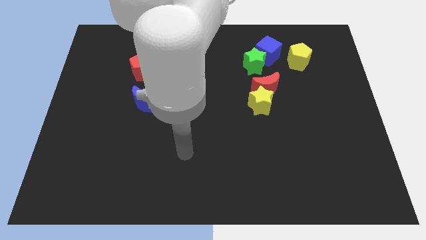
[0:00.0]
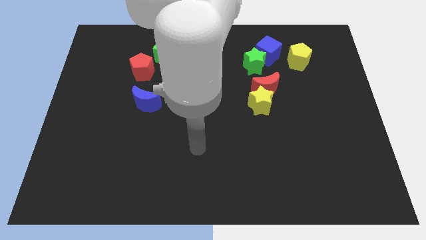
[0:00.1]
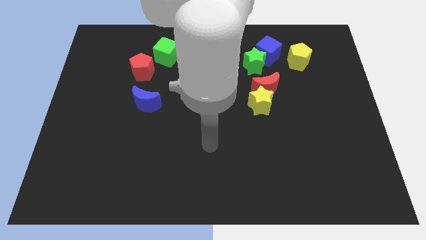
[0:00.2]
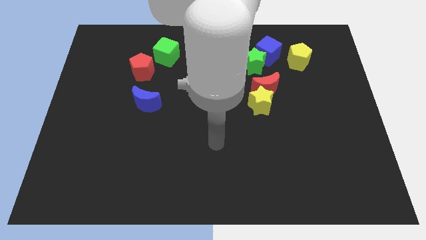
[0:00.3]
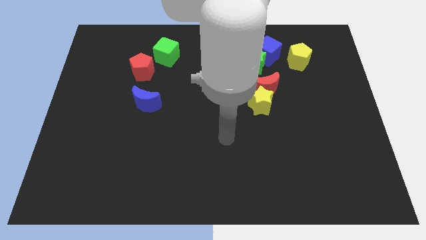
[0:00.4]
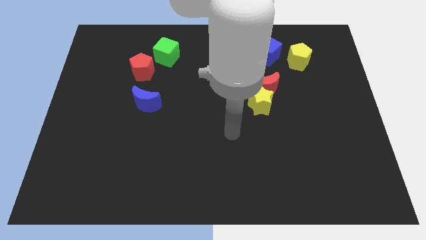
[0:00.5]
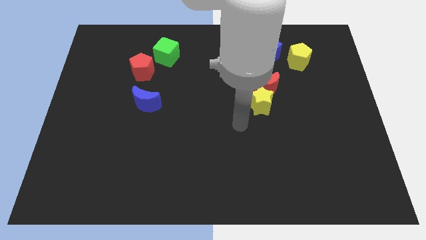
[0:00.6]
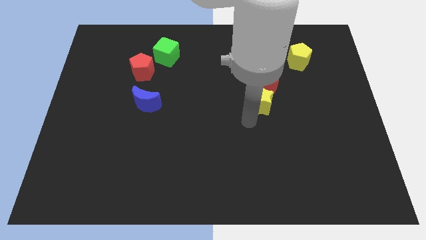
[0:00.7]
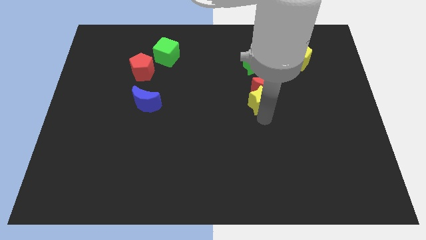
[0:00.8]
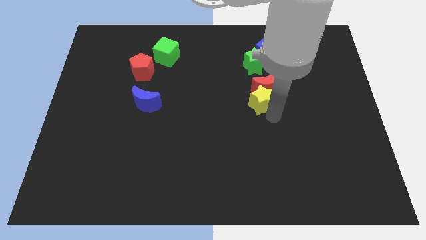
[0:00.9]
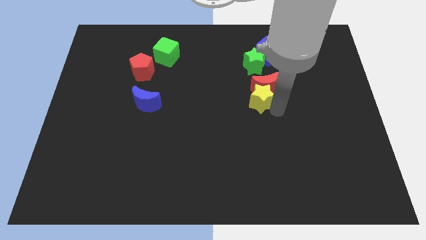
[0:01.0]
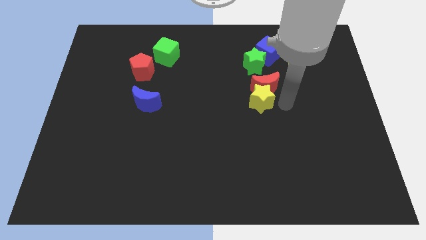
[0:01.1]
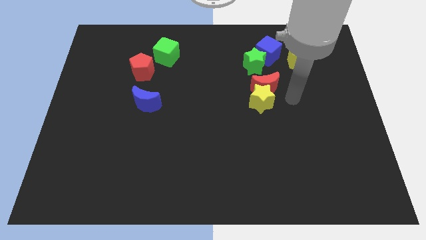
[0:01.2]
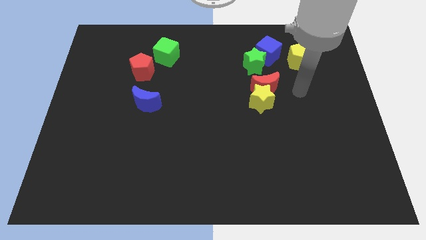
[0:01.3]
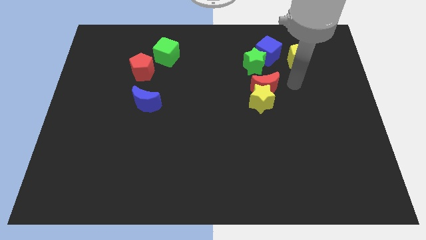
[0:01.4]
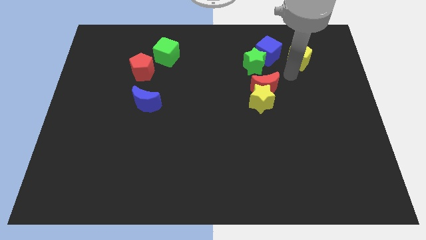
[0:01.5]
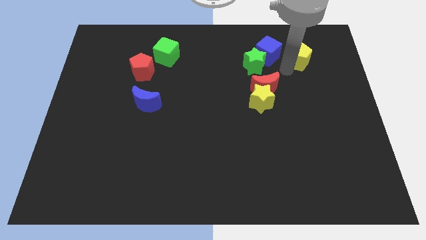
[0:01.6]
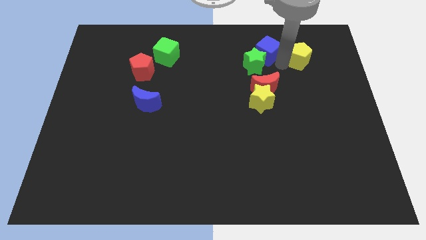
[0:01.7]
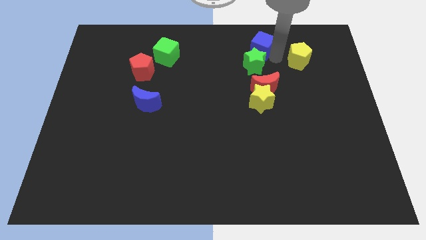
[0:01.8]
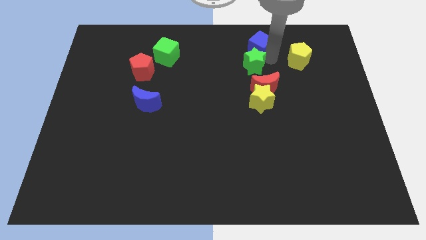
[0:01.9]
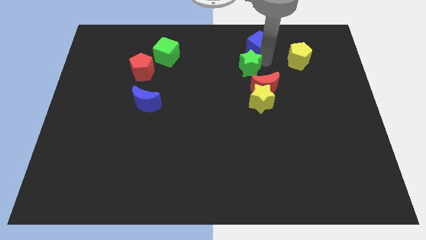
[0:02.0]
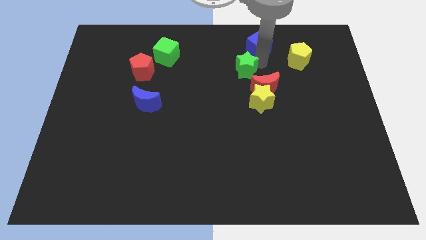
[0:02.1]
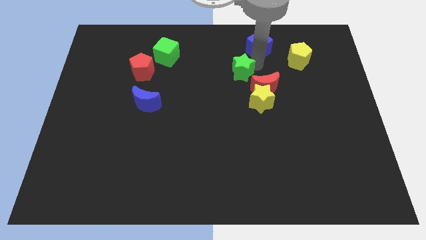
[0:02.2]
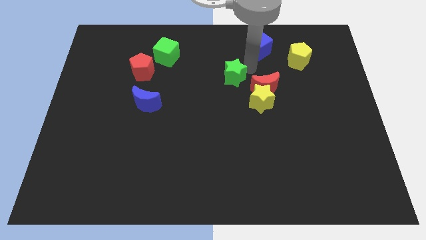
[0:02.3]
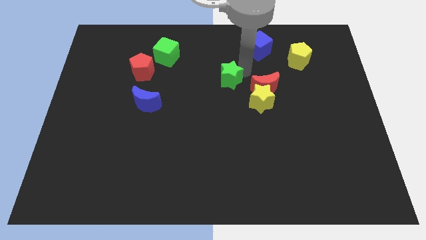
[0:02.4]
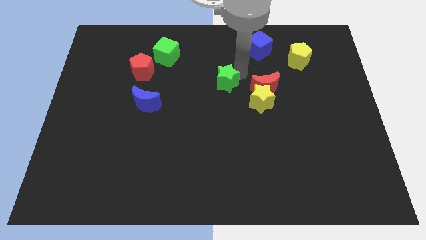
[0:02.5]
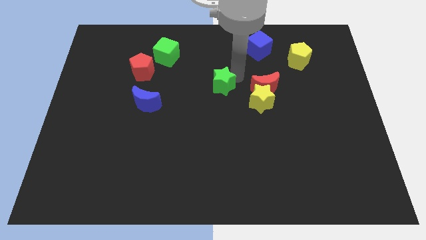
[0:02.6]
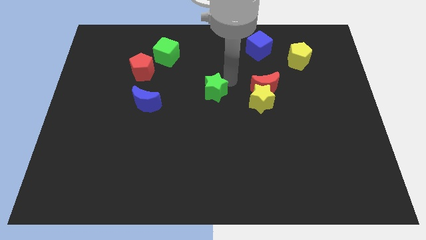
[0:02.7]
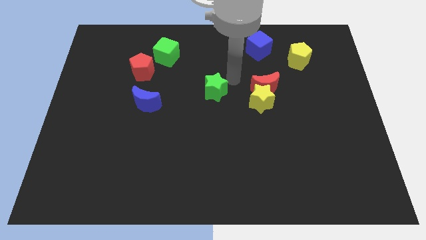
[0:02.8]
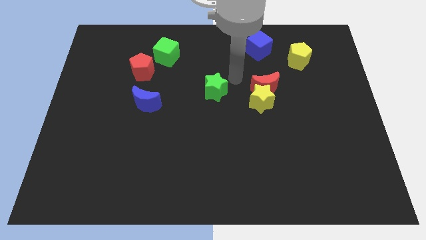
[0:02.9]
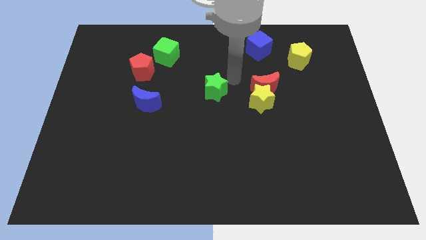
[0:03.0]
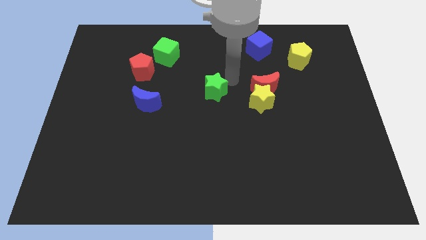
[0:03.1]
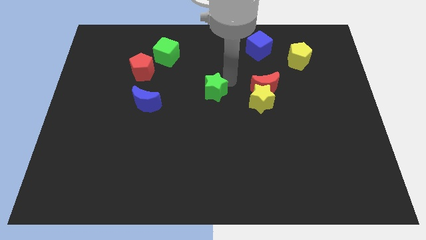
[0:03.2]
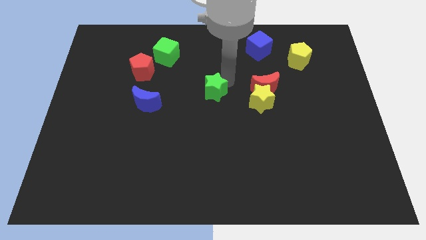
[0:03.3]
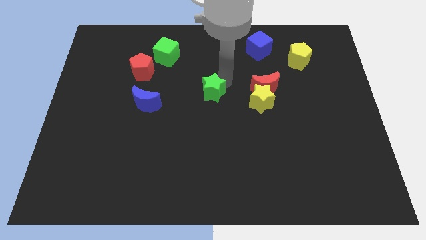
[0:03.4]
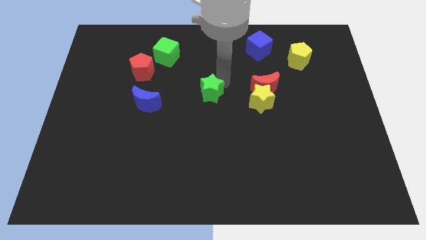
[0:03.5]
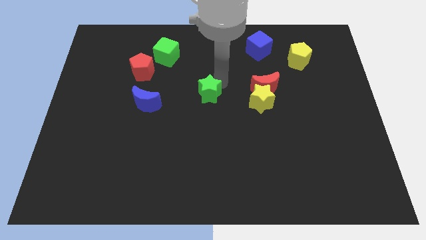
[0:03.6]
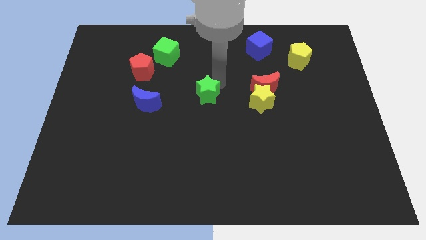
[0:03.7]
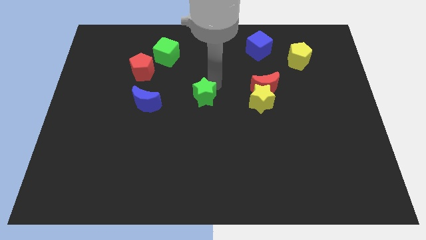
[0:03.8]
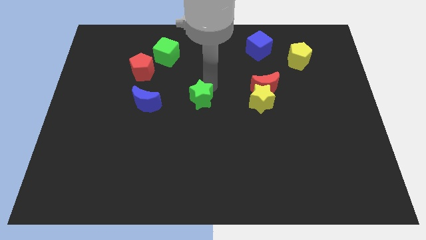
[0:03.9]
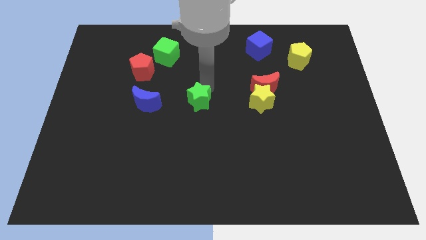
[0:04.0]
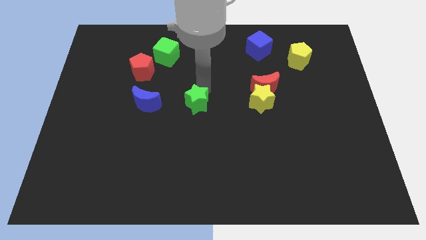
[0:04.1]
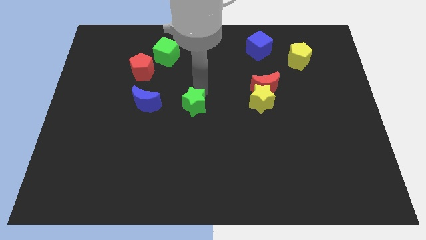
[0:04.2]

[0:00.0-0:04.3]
slide the green star downwards and to the left diagonally

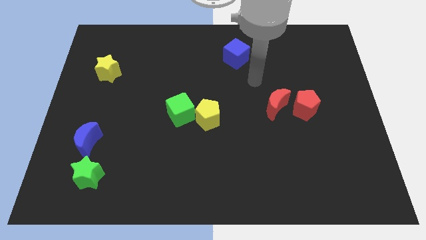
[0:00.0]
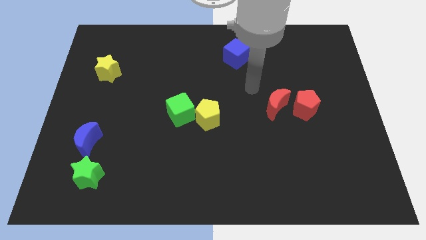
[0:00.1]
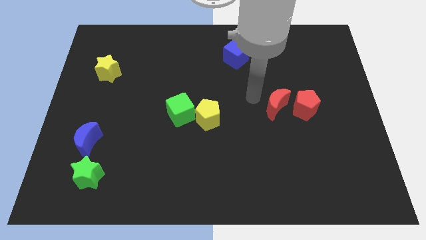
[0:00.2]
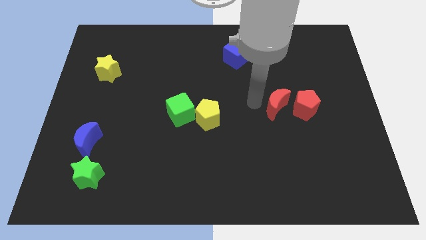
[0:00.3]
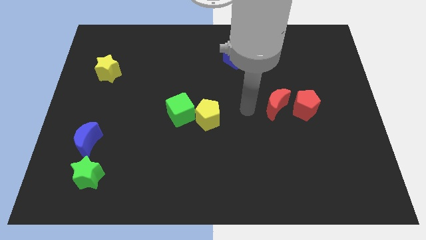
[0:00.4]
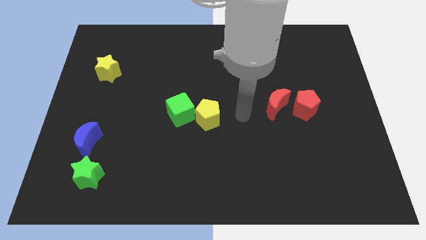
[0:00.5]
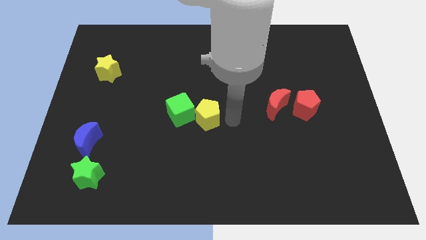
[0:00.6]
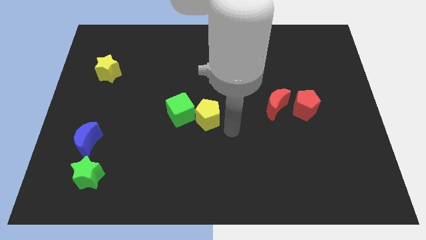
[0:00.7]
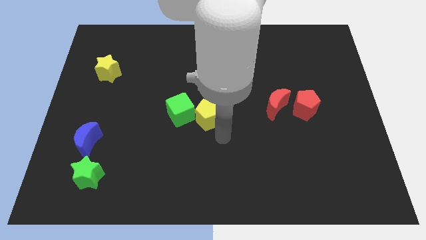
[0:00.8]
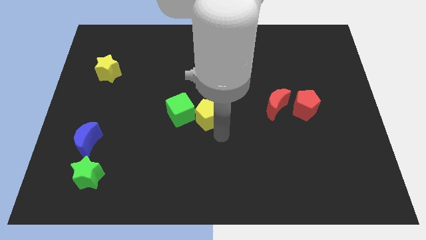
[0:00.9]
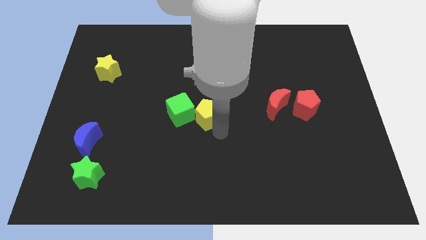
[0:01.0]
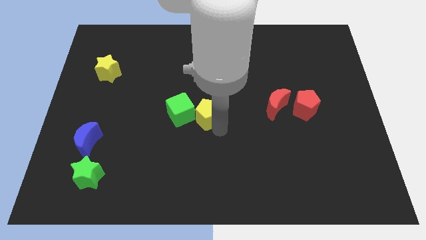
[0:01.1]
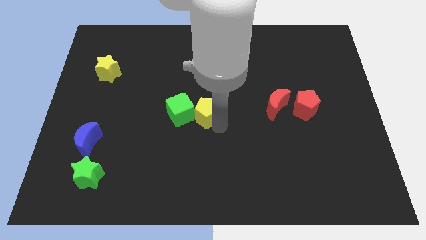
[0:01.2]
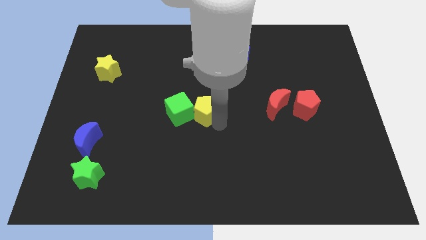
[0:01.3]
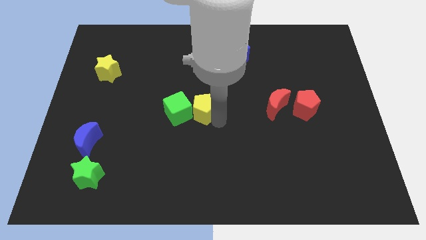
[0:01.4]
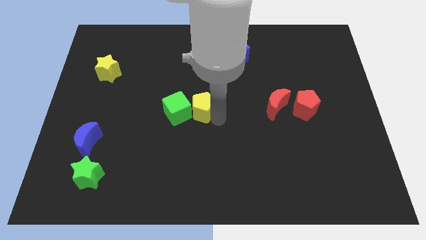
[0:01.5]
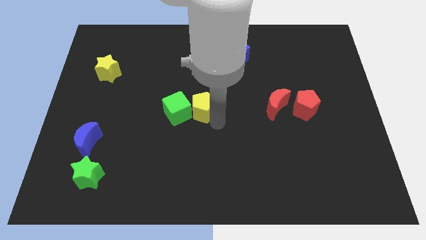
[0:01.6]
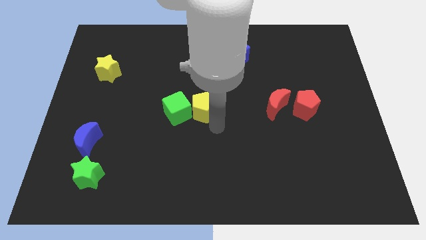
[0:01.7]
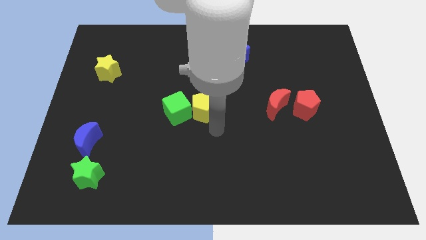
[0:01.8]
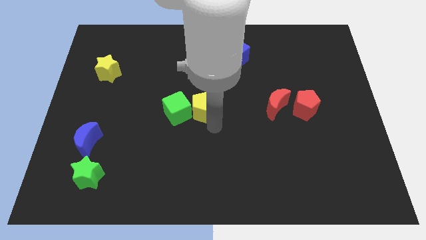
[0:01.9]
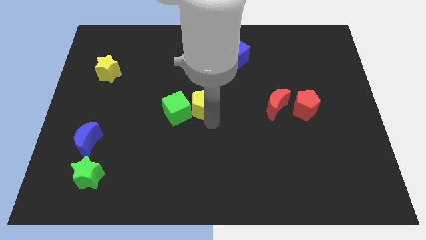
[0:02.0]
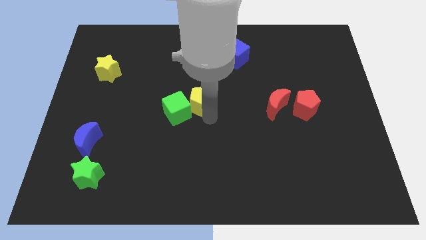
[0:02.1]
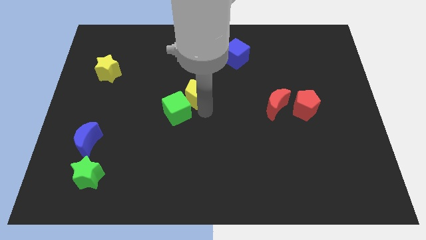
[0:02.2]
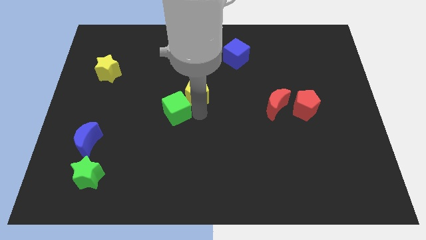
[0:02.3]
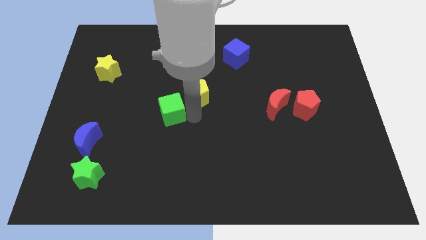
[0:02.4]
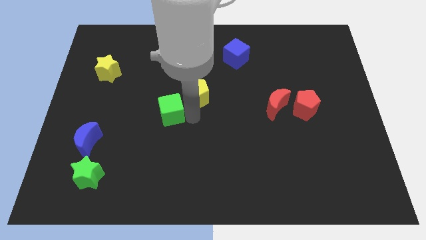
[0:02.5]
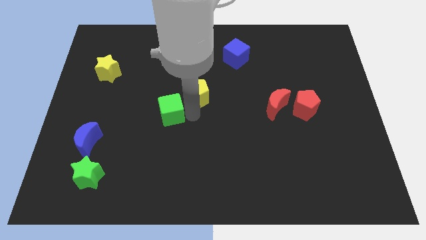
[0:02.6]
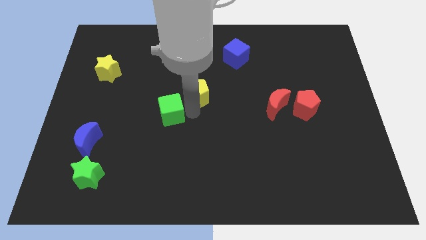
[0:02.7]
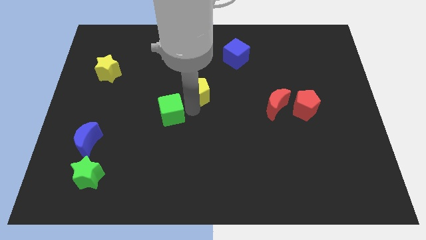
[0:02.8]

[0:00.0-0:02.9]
push the yellow pentagon up a bit

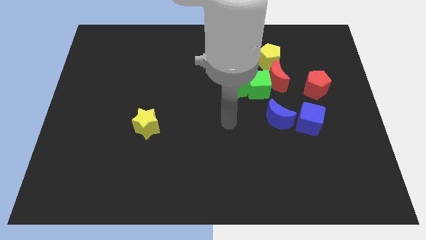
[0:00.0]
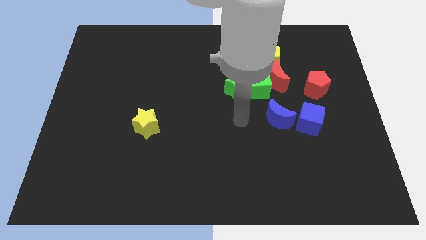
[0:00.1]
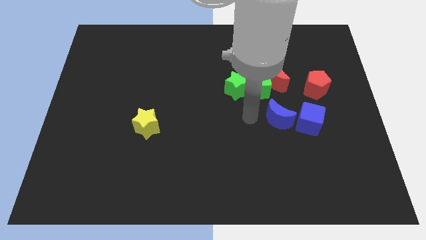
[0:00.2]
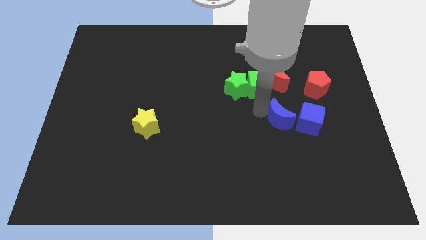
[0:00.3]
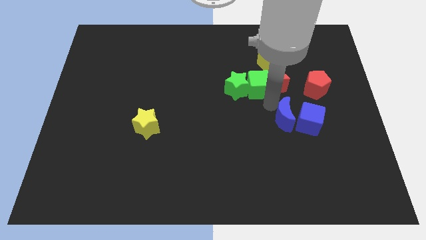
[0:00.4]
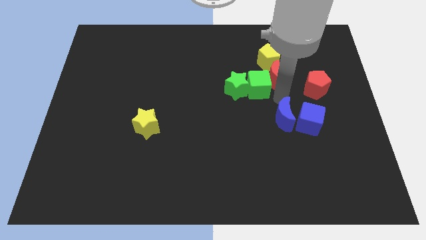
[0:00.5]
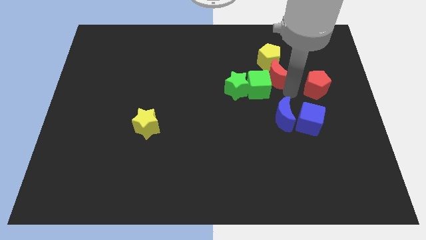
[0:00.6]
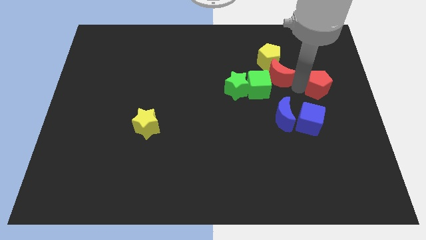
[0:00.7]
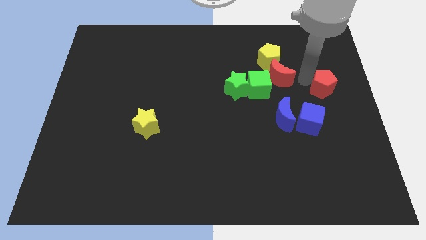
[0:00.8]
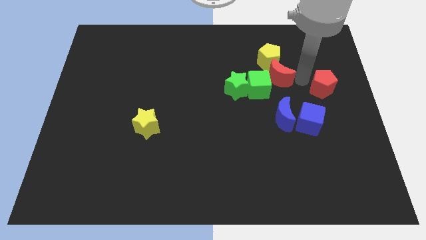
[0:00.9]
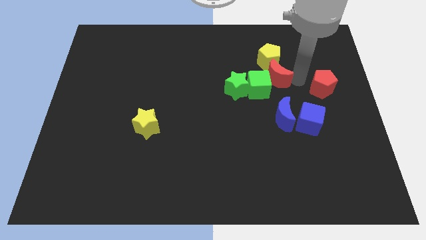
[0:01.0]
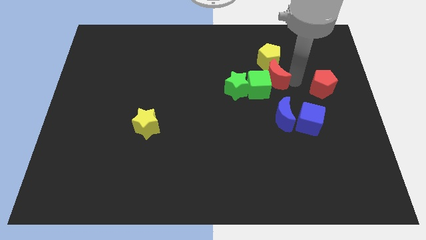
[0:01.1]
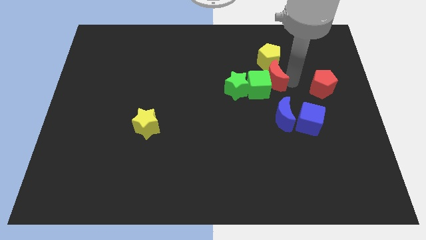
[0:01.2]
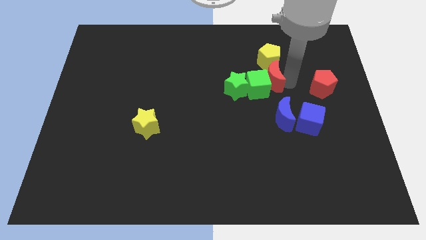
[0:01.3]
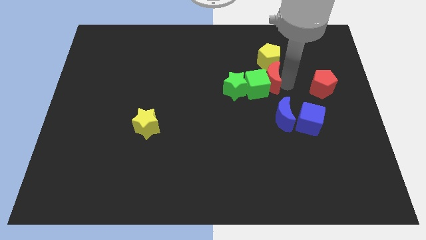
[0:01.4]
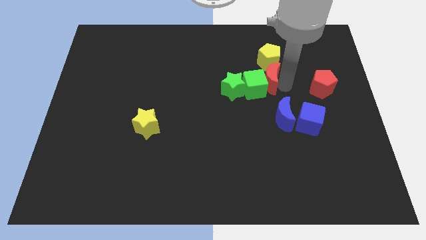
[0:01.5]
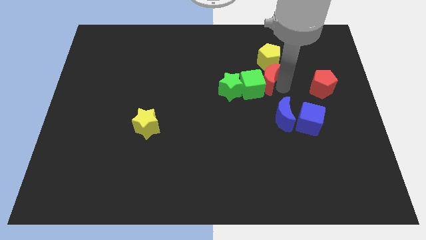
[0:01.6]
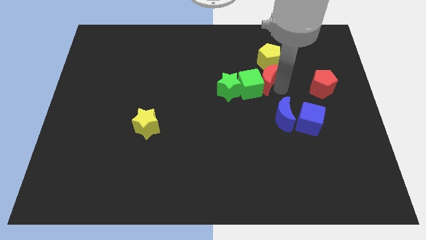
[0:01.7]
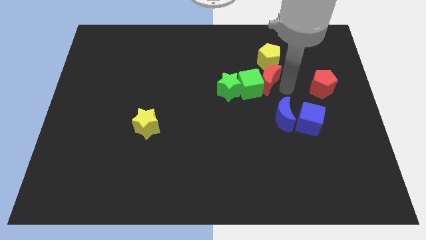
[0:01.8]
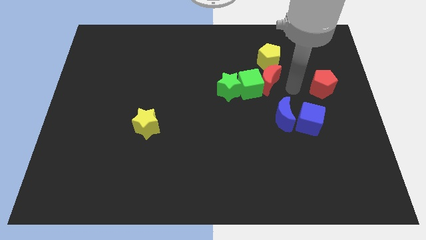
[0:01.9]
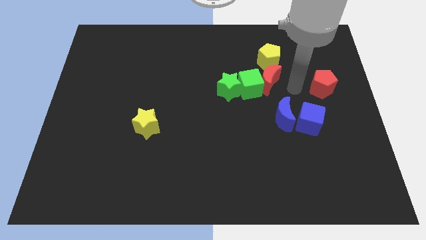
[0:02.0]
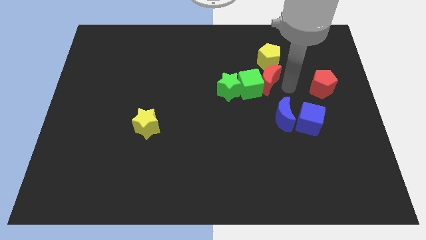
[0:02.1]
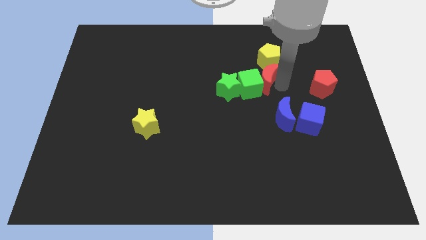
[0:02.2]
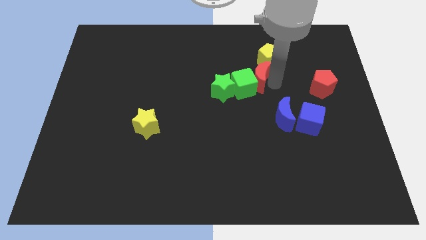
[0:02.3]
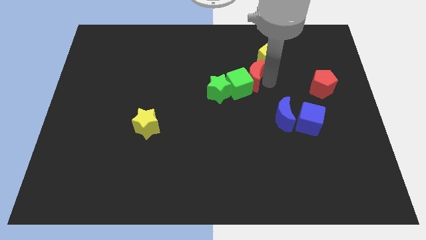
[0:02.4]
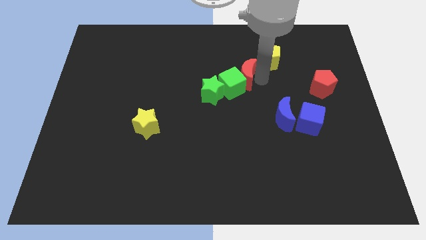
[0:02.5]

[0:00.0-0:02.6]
move the red moon a bit left
